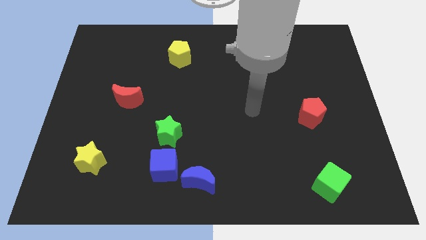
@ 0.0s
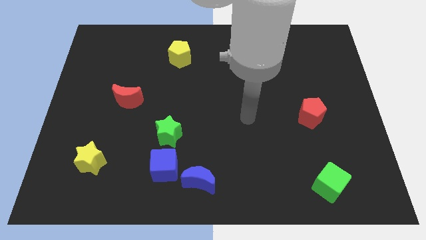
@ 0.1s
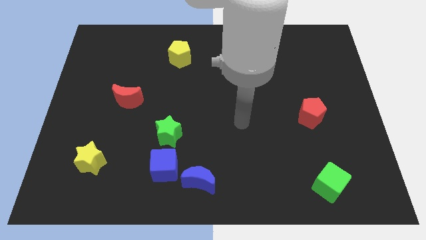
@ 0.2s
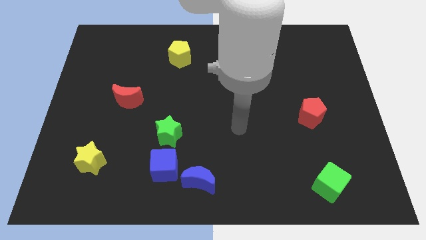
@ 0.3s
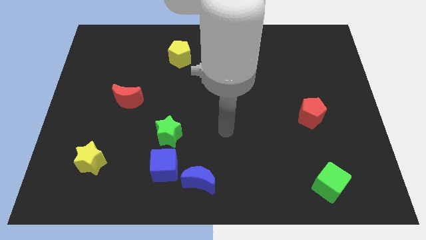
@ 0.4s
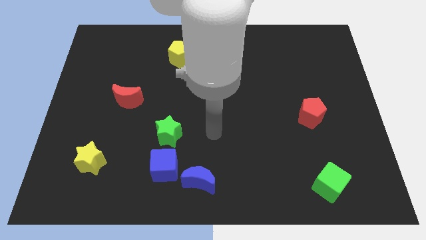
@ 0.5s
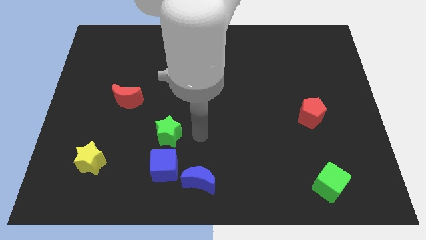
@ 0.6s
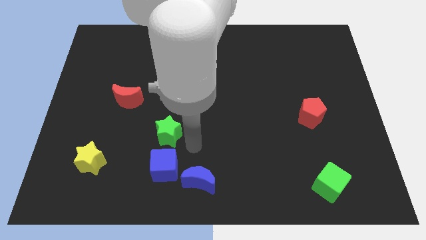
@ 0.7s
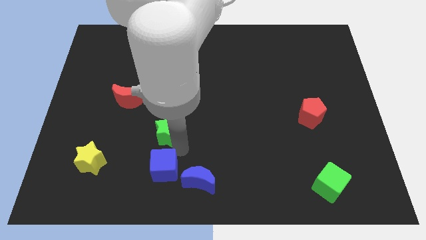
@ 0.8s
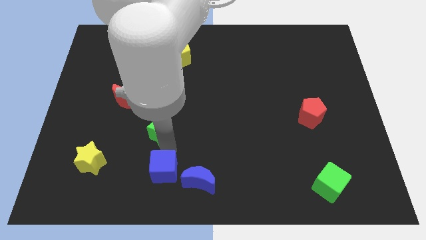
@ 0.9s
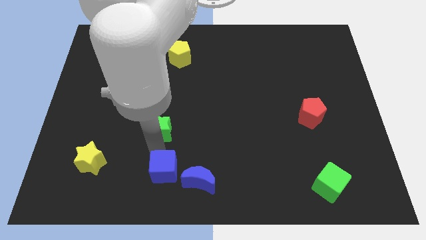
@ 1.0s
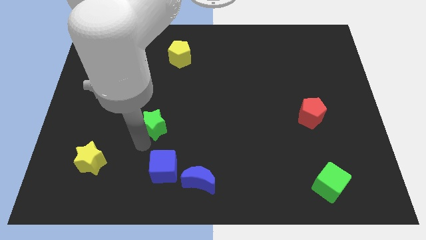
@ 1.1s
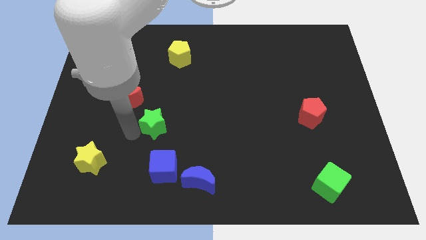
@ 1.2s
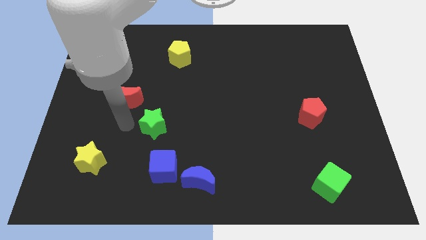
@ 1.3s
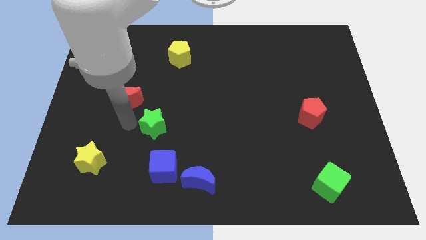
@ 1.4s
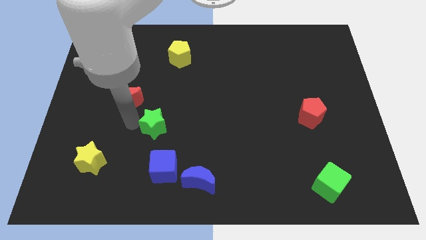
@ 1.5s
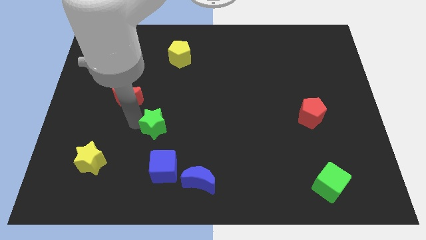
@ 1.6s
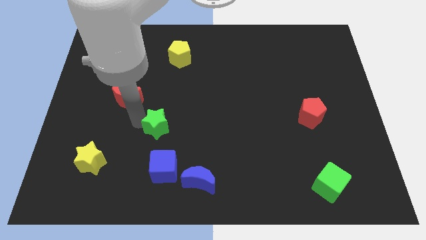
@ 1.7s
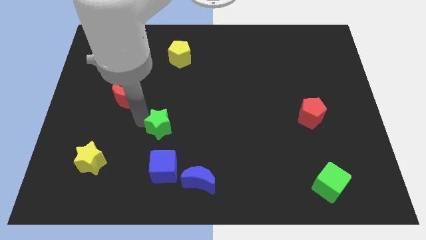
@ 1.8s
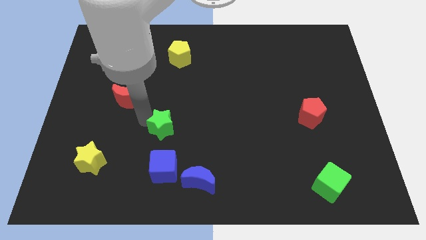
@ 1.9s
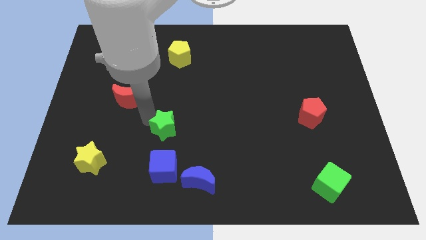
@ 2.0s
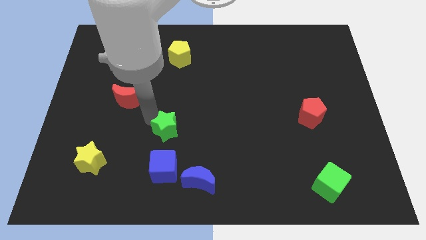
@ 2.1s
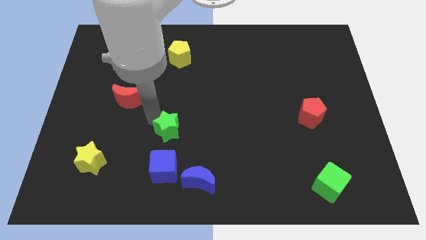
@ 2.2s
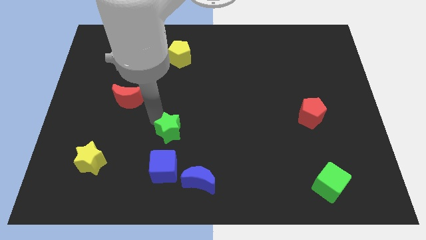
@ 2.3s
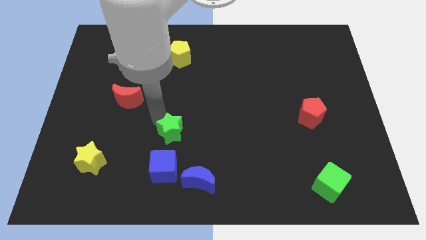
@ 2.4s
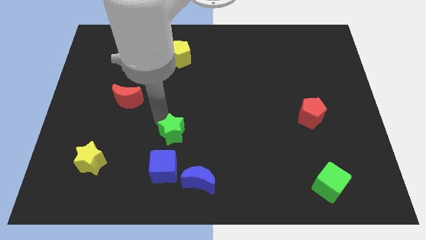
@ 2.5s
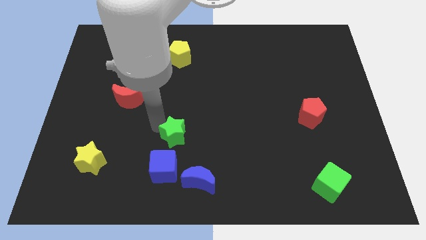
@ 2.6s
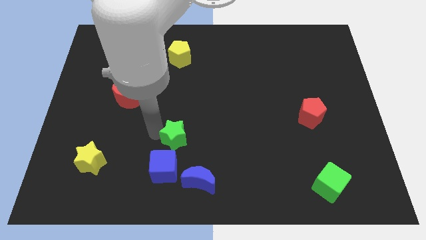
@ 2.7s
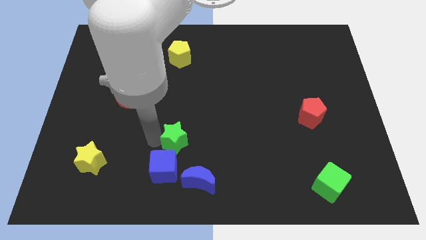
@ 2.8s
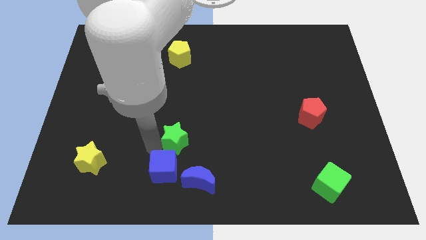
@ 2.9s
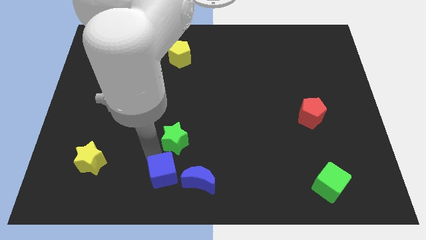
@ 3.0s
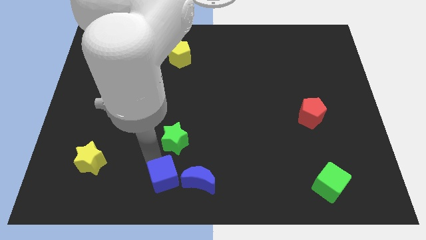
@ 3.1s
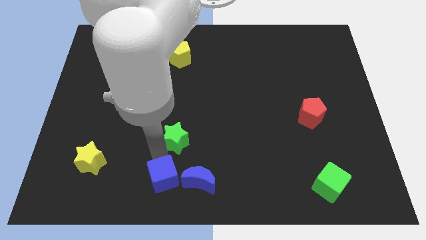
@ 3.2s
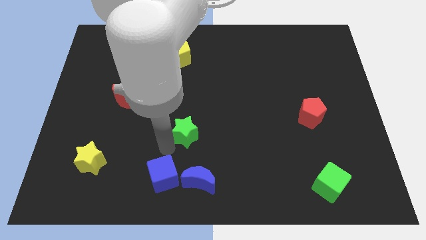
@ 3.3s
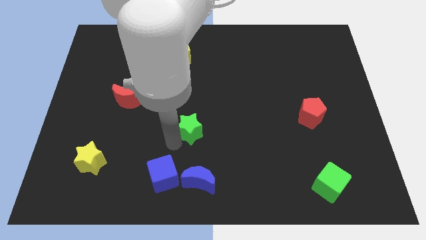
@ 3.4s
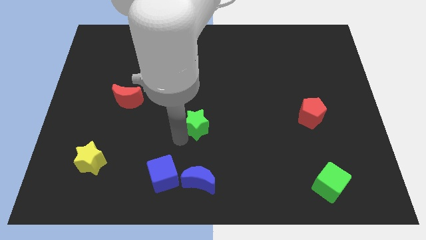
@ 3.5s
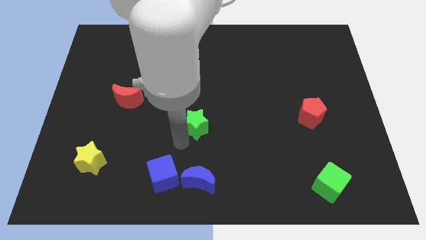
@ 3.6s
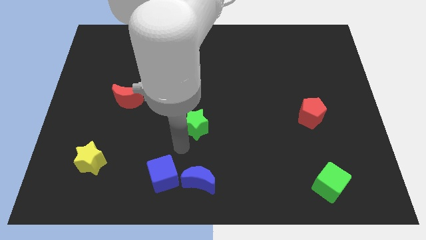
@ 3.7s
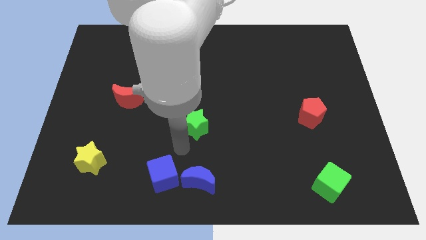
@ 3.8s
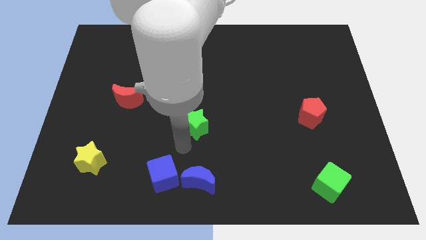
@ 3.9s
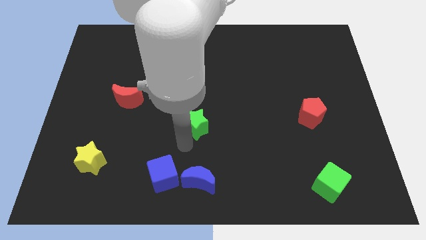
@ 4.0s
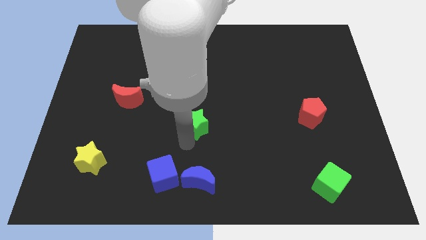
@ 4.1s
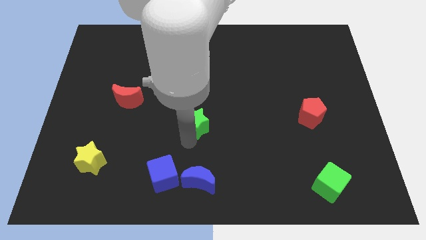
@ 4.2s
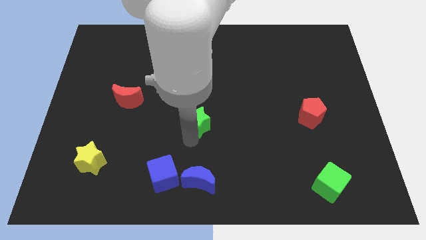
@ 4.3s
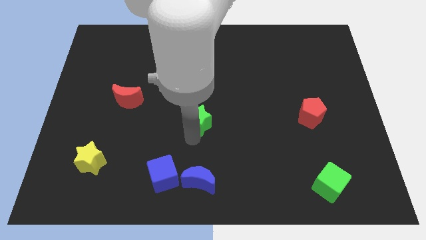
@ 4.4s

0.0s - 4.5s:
move the green star a little bit upwards and then to the right

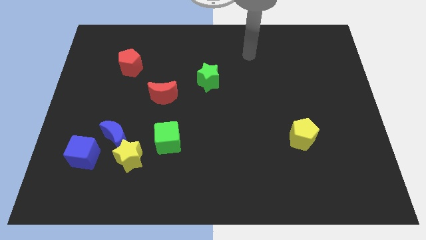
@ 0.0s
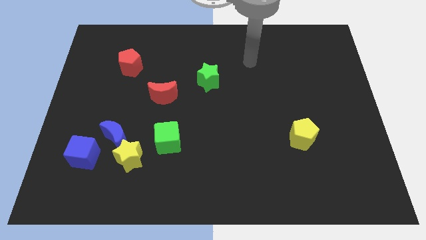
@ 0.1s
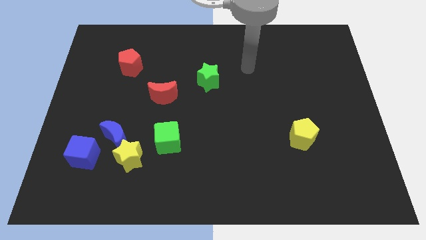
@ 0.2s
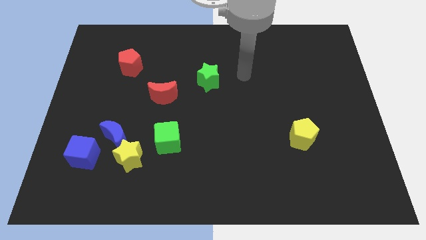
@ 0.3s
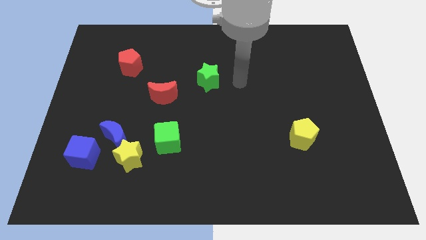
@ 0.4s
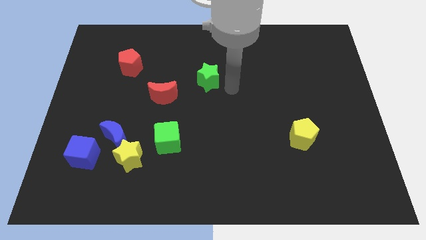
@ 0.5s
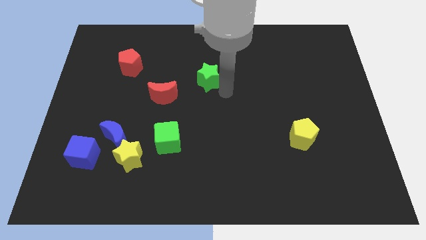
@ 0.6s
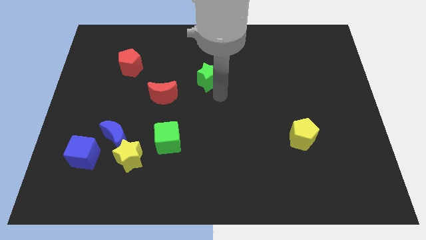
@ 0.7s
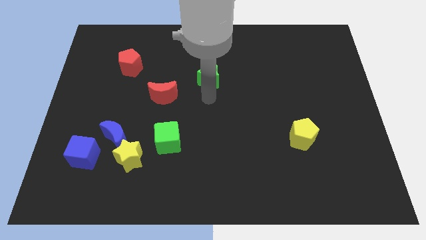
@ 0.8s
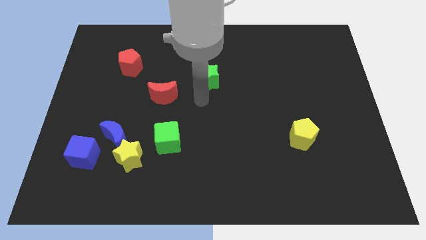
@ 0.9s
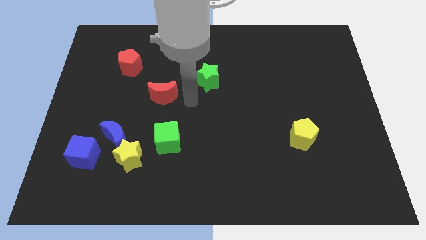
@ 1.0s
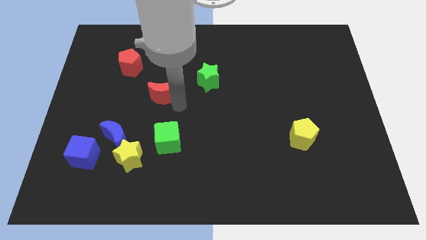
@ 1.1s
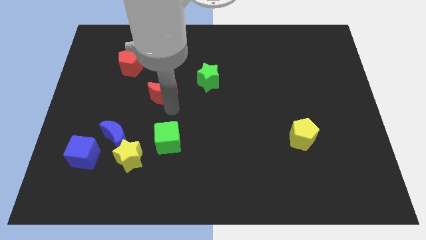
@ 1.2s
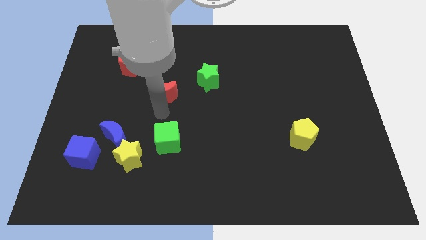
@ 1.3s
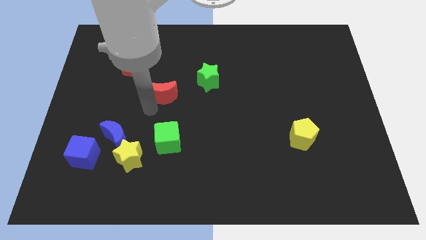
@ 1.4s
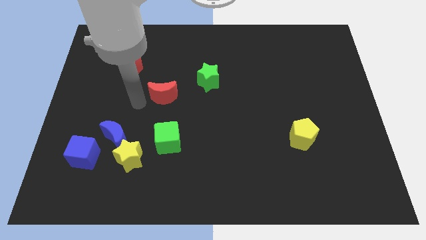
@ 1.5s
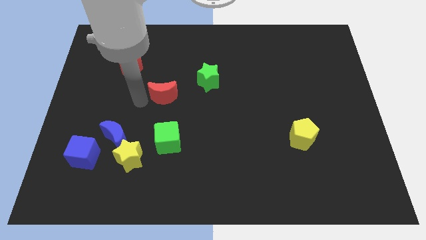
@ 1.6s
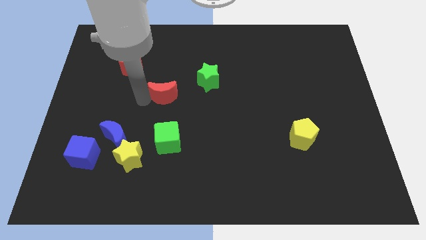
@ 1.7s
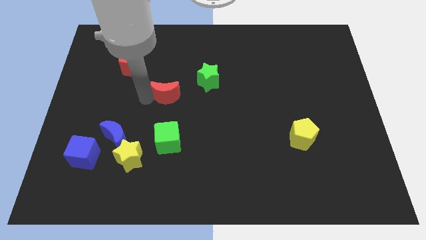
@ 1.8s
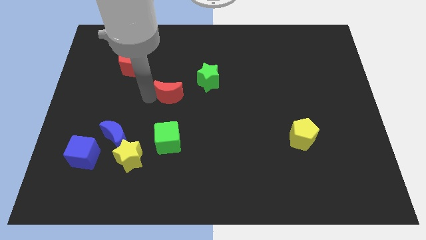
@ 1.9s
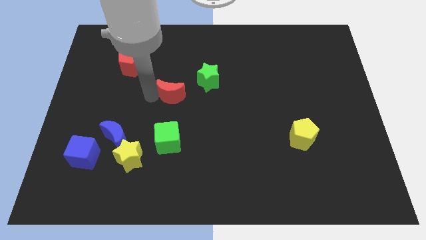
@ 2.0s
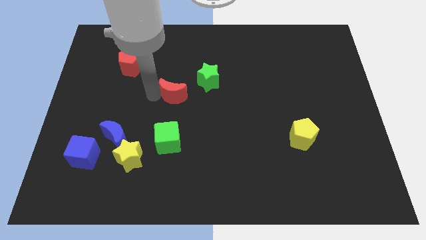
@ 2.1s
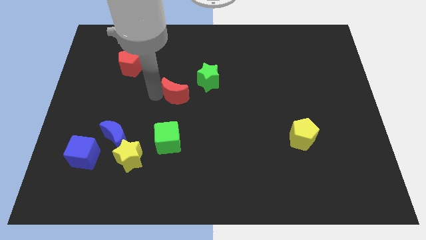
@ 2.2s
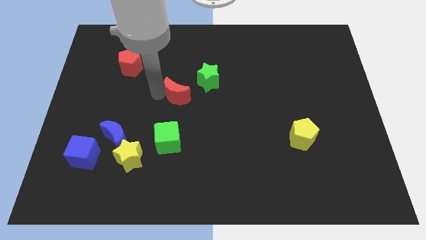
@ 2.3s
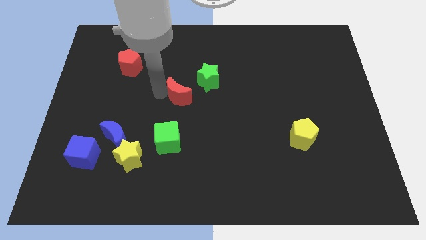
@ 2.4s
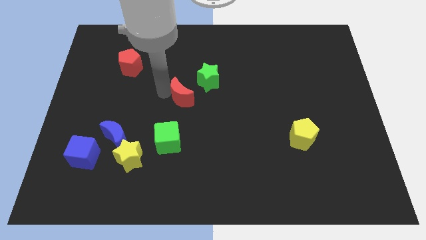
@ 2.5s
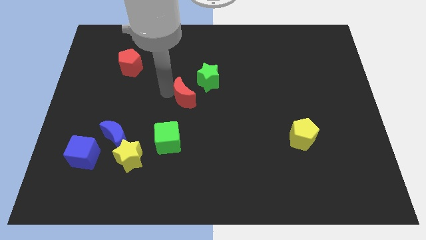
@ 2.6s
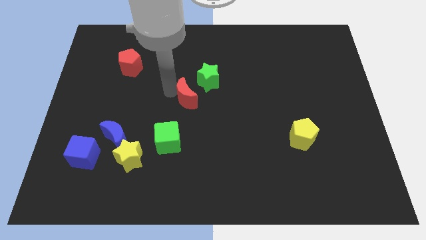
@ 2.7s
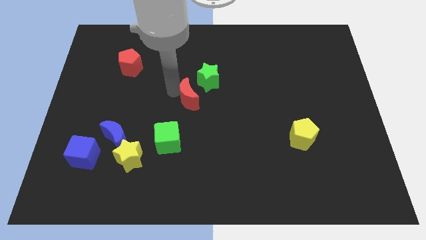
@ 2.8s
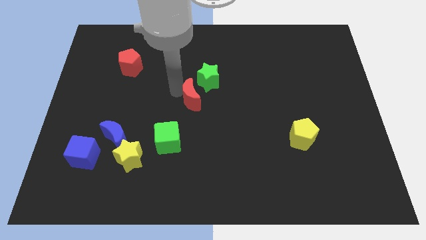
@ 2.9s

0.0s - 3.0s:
move the red moon right a little bit

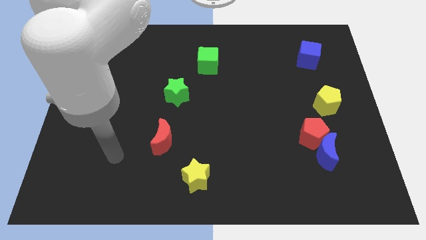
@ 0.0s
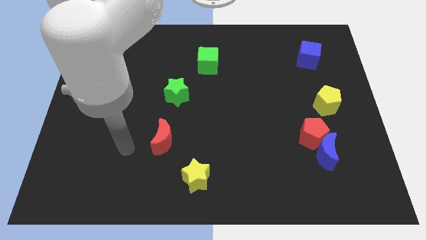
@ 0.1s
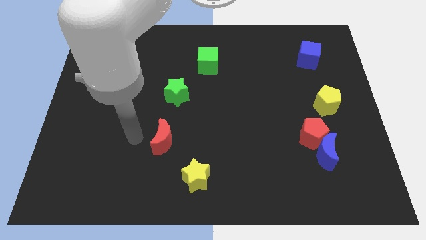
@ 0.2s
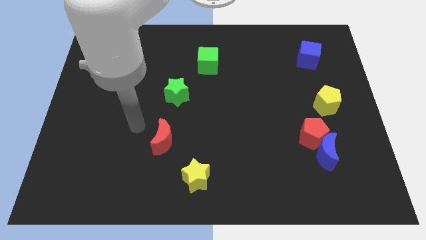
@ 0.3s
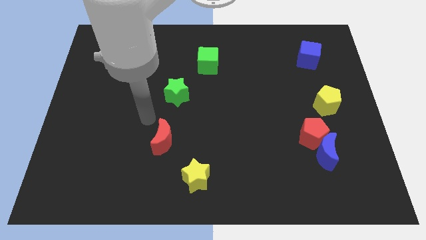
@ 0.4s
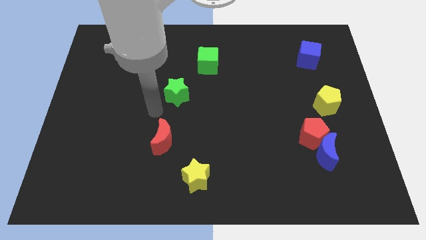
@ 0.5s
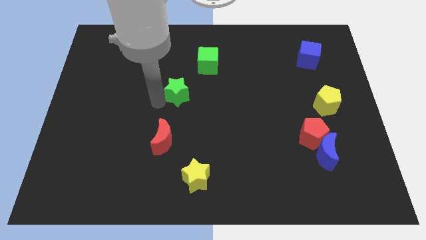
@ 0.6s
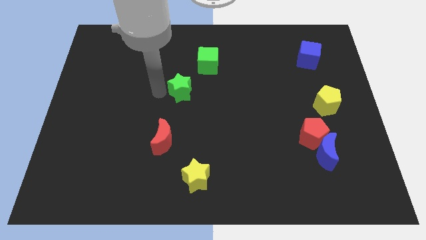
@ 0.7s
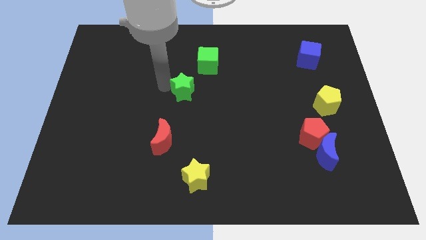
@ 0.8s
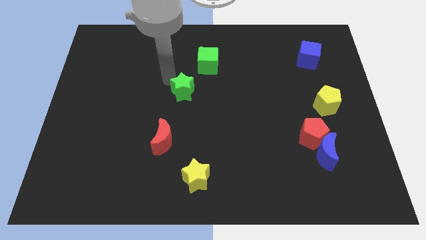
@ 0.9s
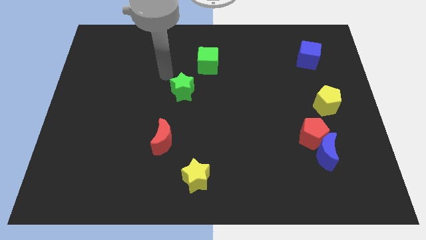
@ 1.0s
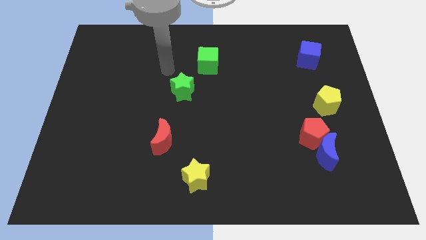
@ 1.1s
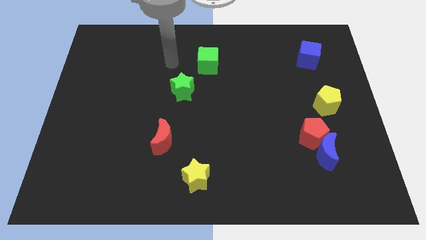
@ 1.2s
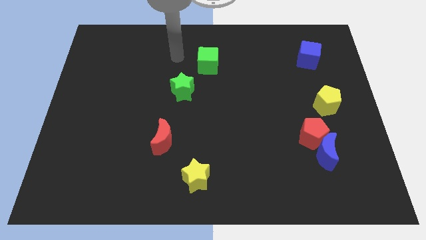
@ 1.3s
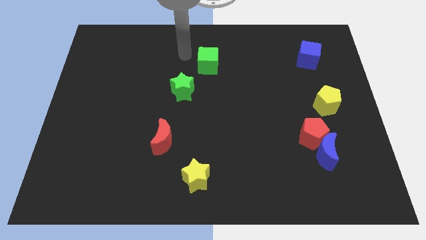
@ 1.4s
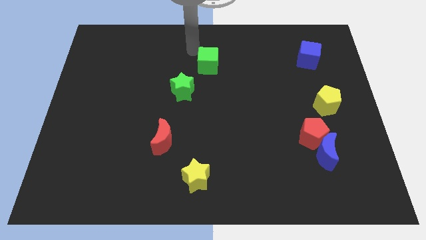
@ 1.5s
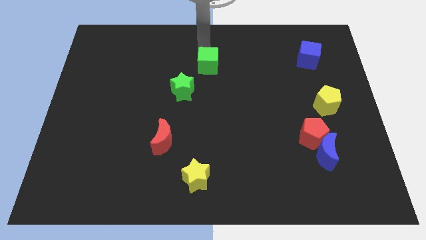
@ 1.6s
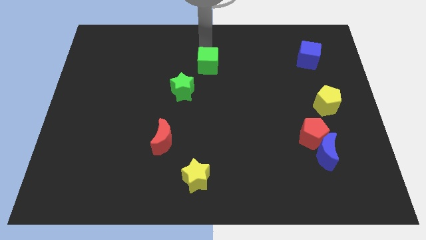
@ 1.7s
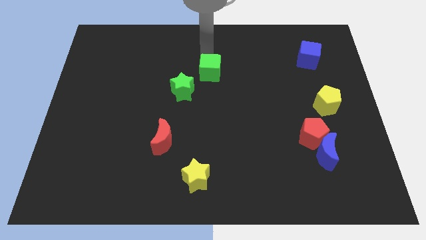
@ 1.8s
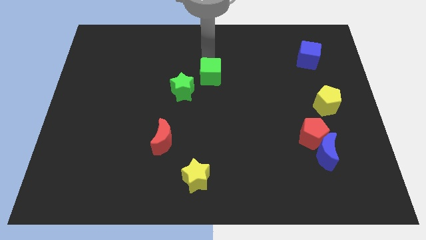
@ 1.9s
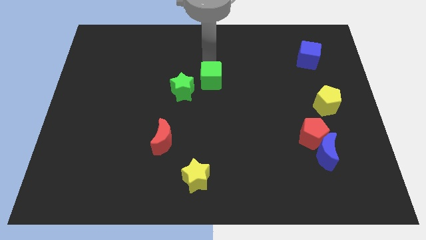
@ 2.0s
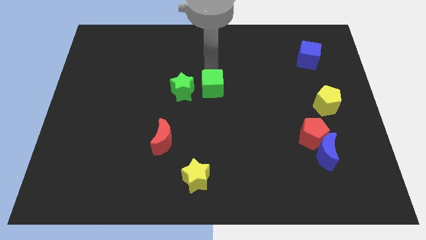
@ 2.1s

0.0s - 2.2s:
slightly move the green cube down
